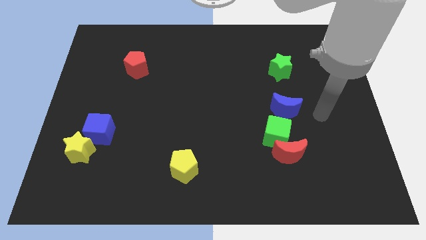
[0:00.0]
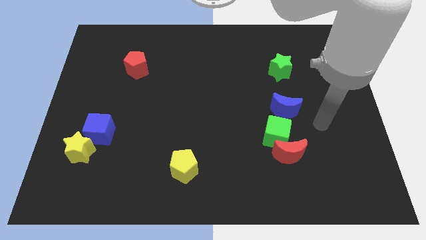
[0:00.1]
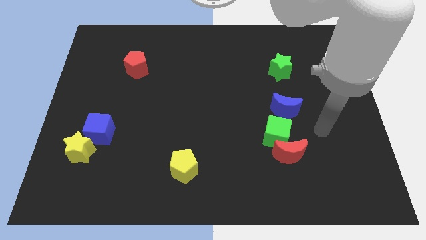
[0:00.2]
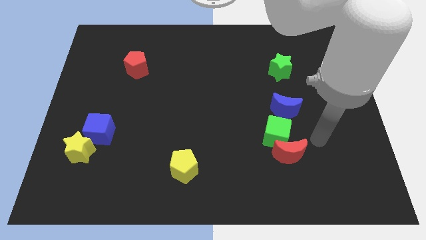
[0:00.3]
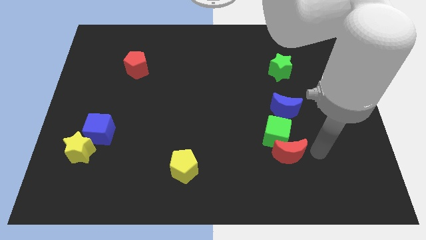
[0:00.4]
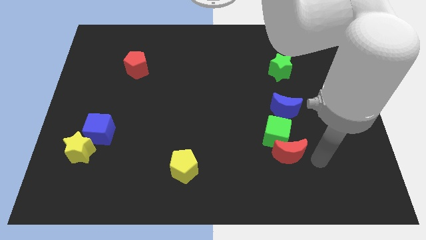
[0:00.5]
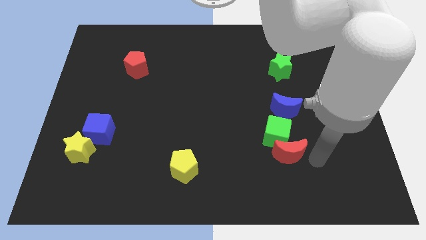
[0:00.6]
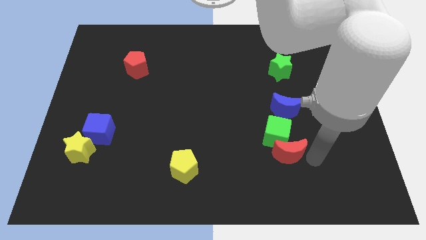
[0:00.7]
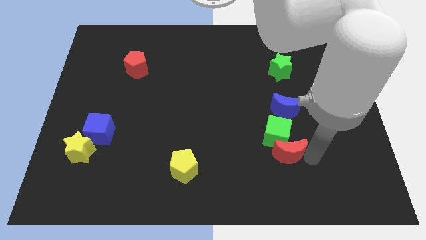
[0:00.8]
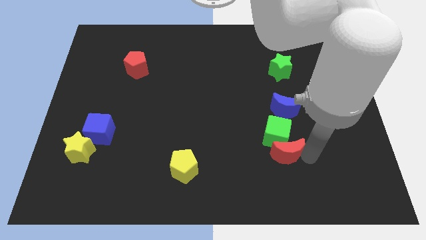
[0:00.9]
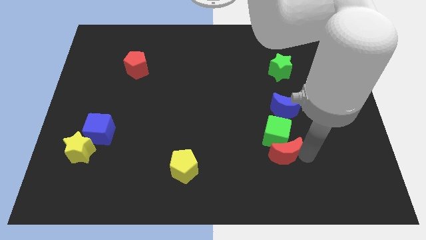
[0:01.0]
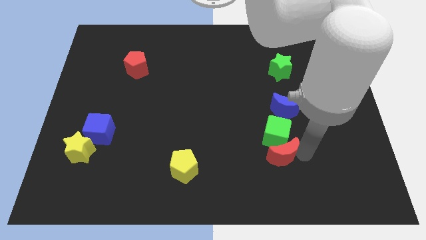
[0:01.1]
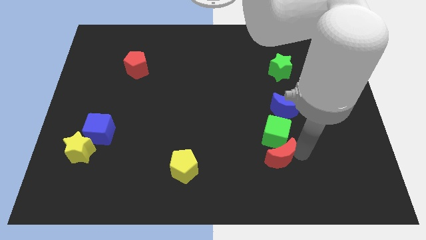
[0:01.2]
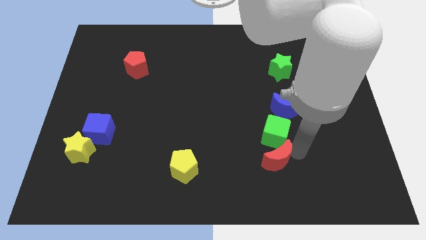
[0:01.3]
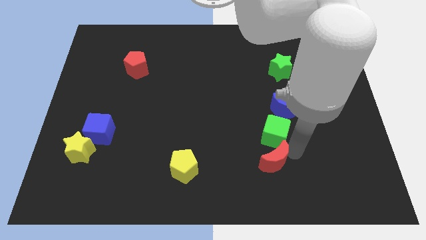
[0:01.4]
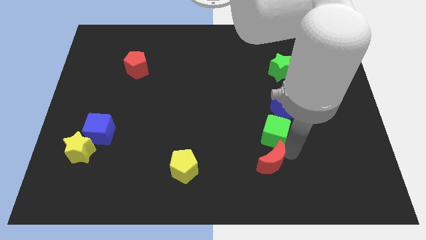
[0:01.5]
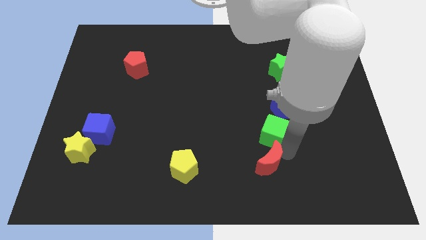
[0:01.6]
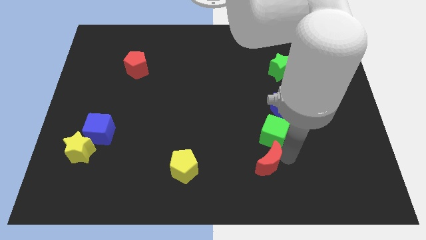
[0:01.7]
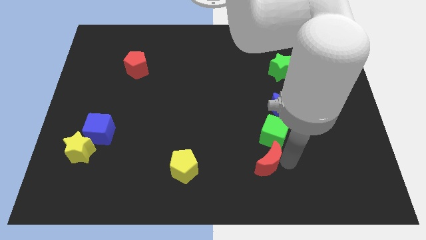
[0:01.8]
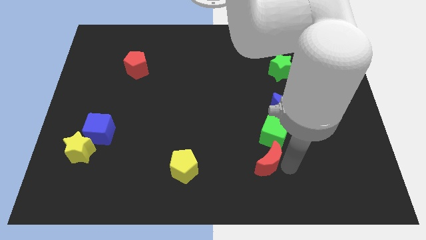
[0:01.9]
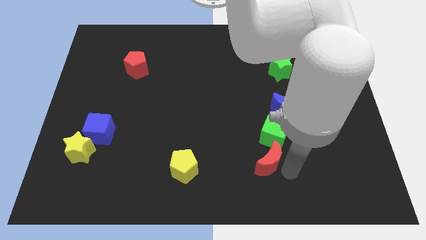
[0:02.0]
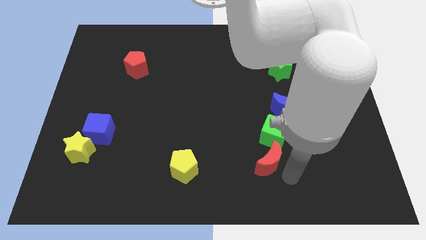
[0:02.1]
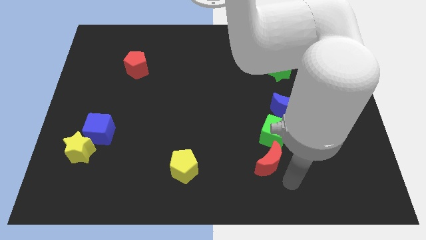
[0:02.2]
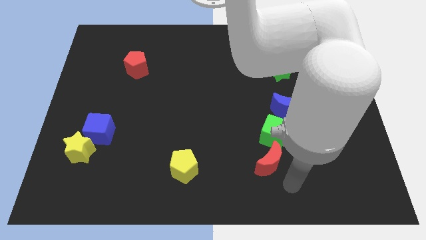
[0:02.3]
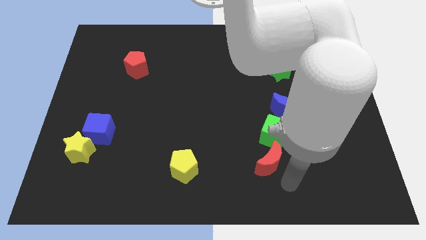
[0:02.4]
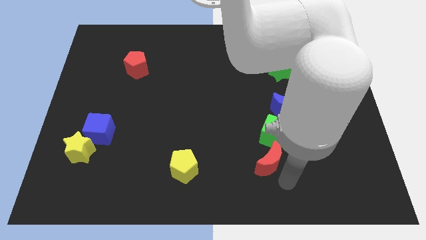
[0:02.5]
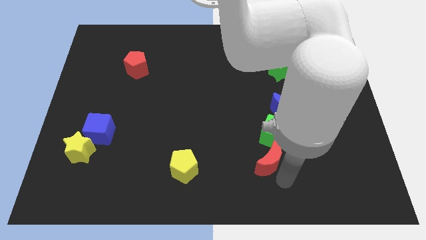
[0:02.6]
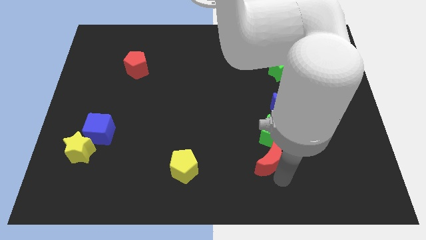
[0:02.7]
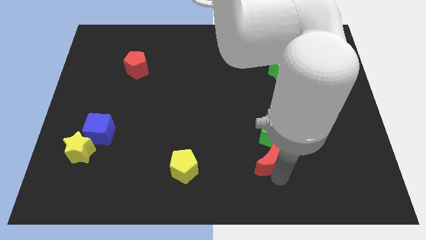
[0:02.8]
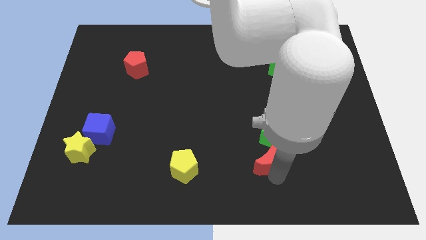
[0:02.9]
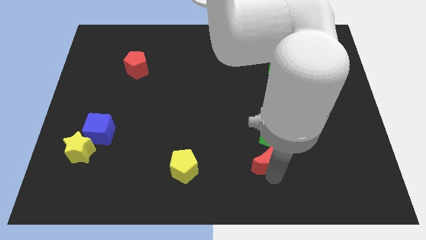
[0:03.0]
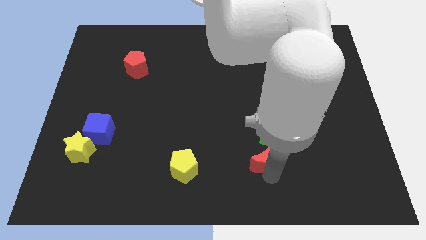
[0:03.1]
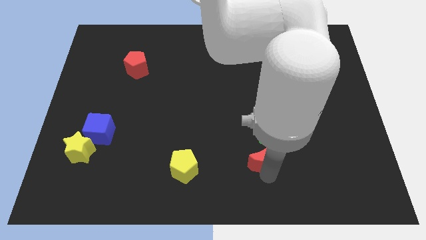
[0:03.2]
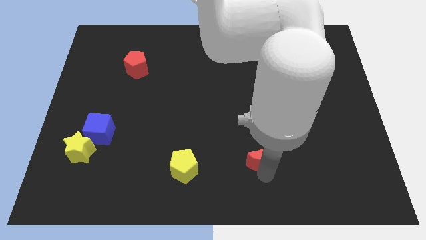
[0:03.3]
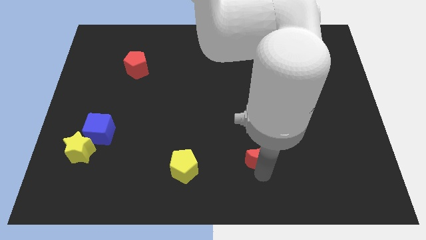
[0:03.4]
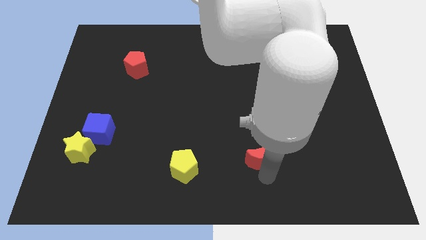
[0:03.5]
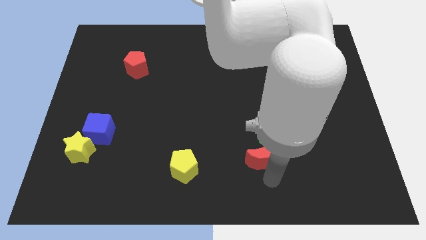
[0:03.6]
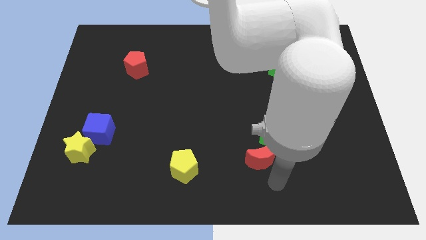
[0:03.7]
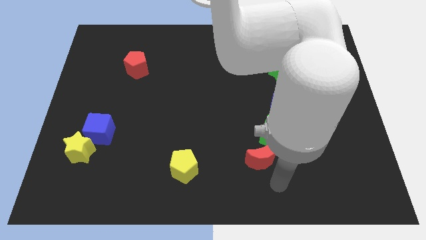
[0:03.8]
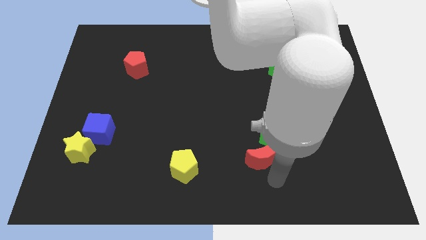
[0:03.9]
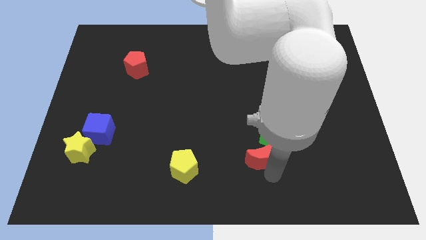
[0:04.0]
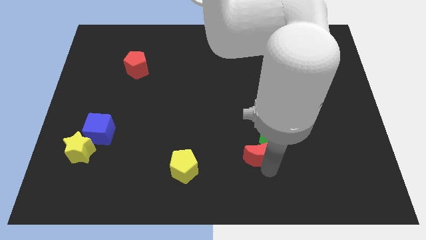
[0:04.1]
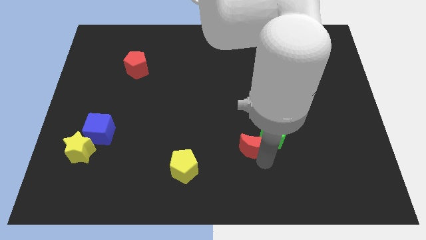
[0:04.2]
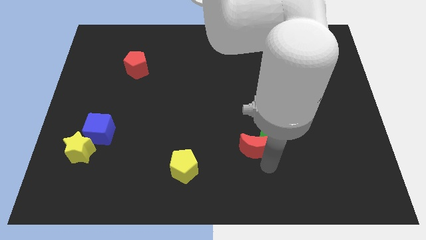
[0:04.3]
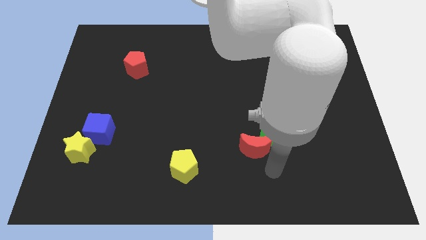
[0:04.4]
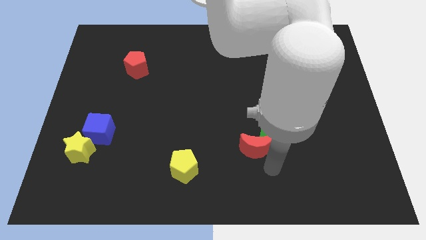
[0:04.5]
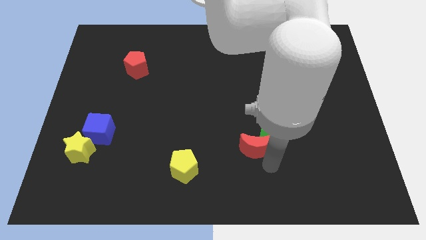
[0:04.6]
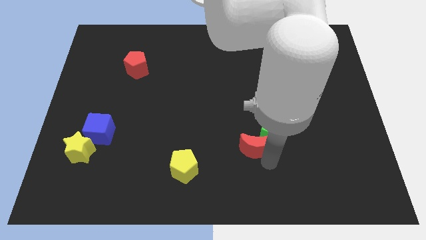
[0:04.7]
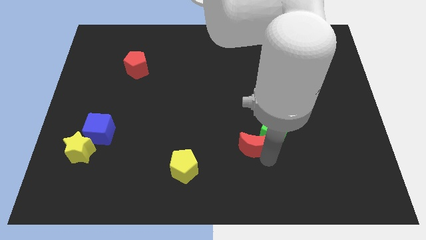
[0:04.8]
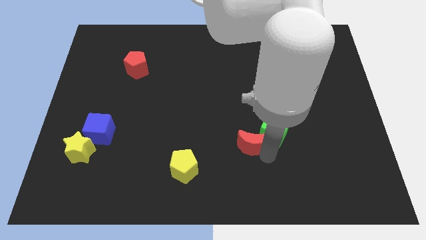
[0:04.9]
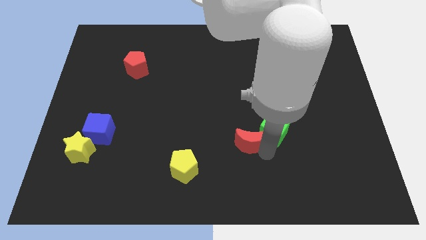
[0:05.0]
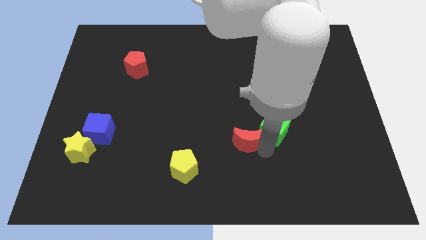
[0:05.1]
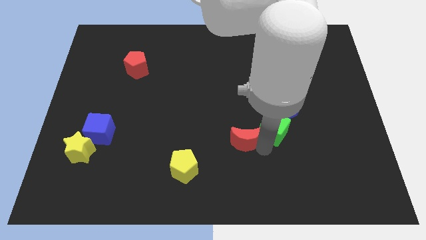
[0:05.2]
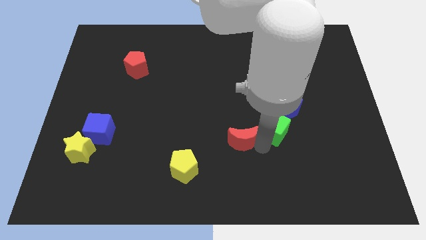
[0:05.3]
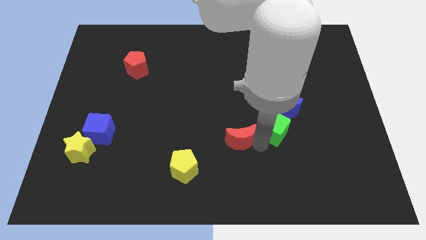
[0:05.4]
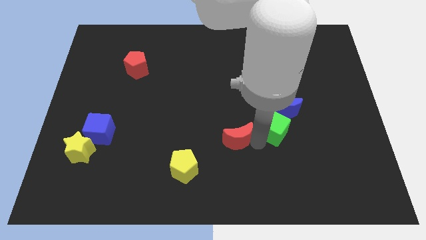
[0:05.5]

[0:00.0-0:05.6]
put the red moon to the middle of the board

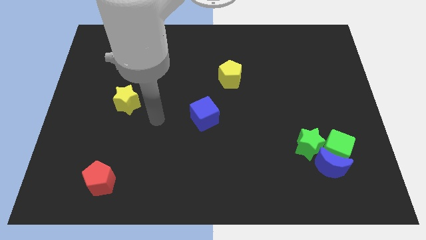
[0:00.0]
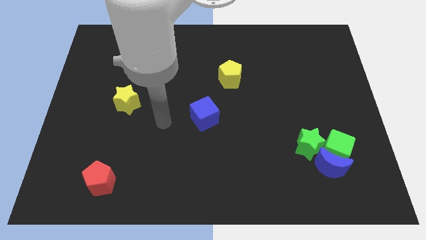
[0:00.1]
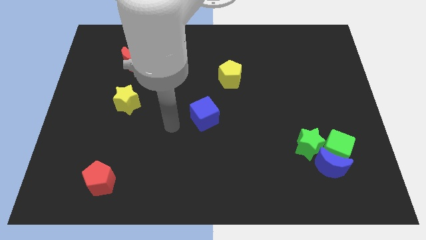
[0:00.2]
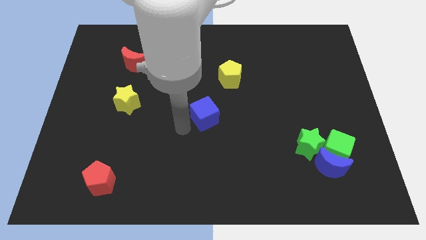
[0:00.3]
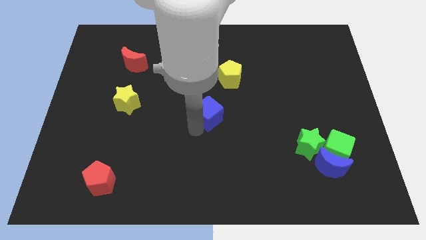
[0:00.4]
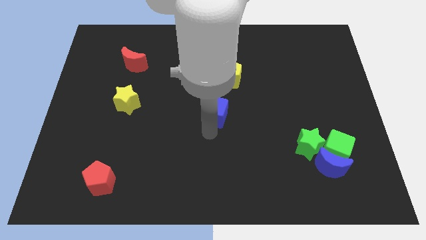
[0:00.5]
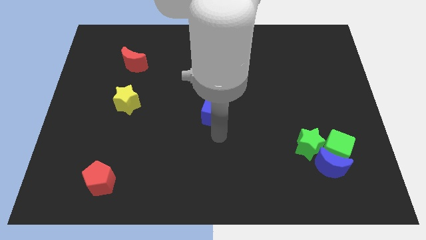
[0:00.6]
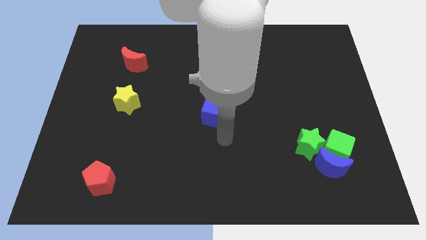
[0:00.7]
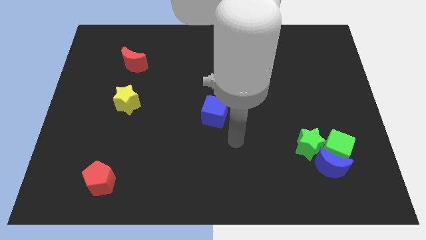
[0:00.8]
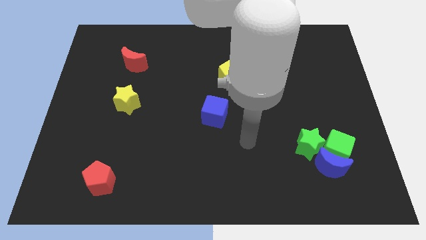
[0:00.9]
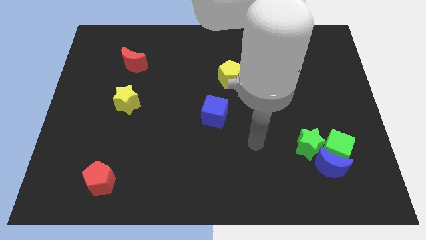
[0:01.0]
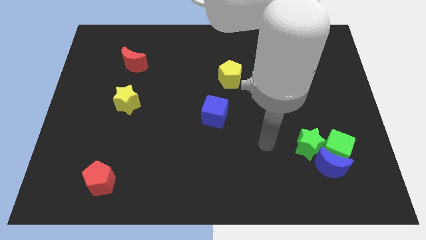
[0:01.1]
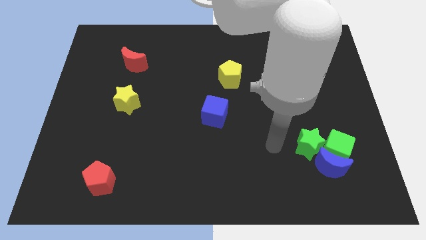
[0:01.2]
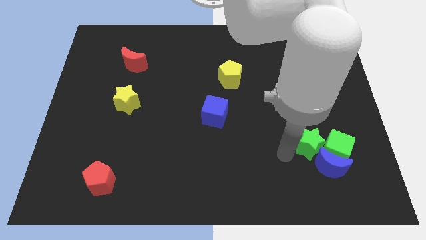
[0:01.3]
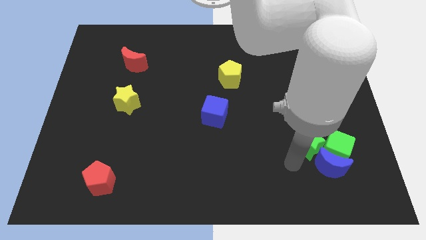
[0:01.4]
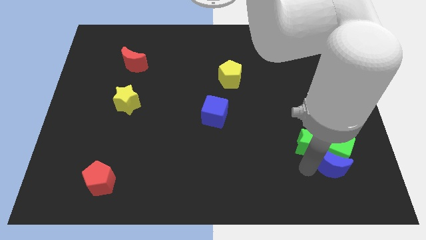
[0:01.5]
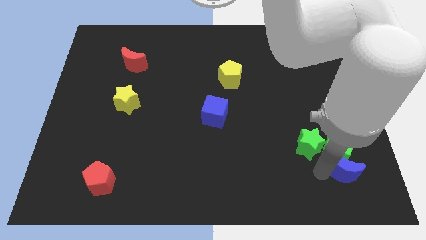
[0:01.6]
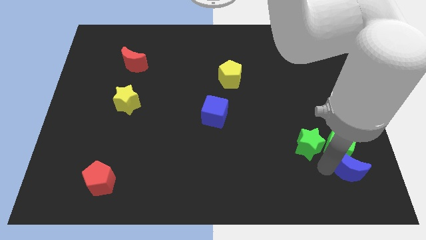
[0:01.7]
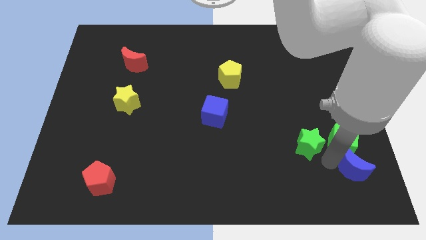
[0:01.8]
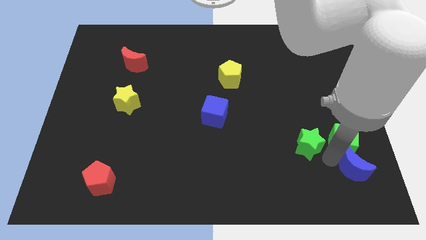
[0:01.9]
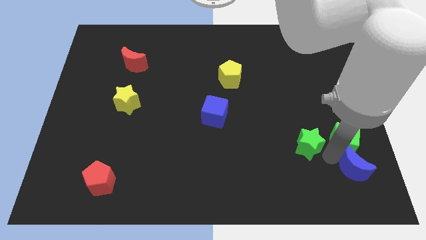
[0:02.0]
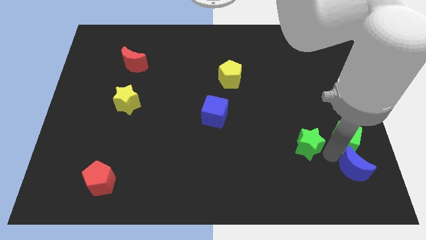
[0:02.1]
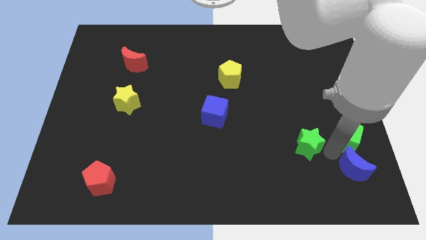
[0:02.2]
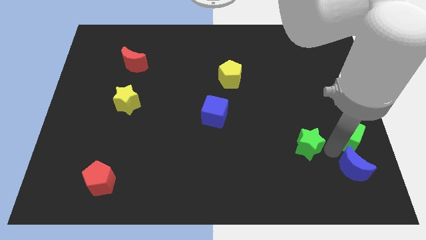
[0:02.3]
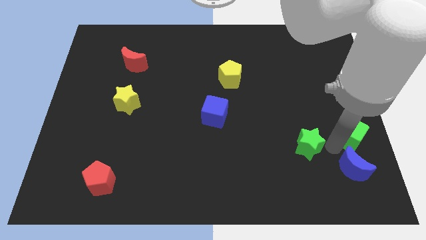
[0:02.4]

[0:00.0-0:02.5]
push the green cube to the right side of the board
